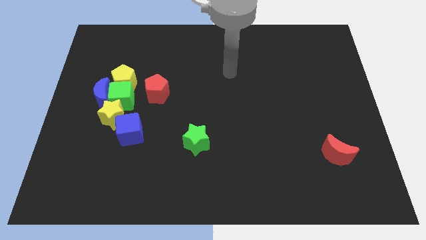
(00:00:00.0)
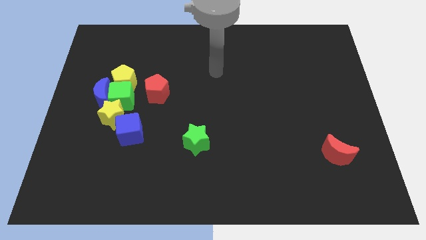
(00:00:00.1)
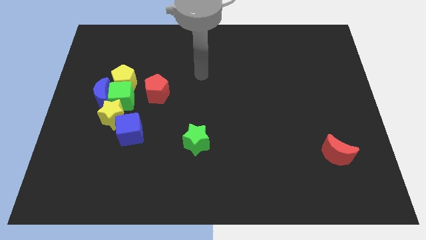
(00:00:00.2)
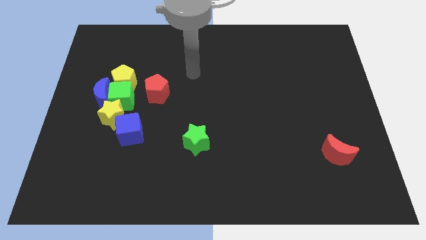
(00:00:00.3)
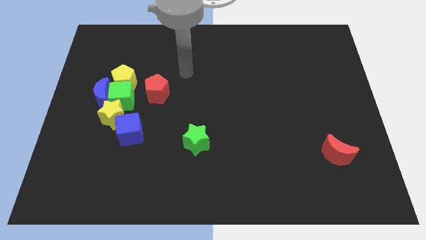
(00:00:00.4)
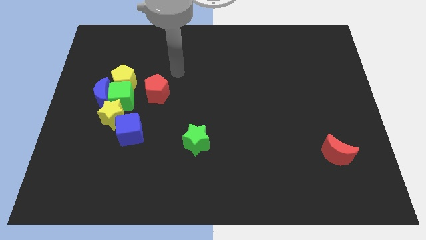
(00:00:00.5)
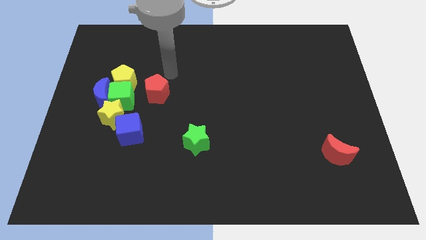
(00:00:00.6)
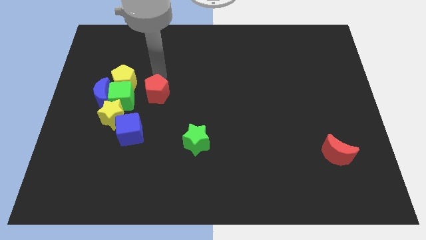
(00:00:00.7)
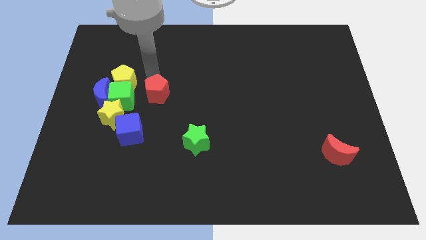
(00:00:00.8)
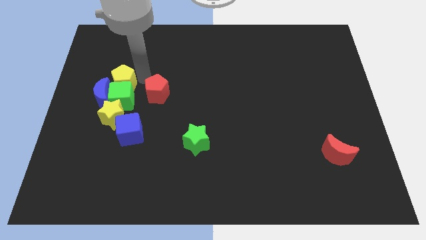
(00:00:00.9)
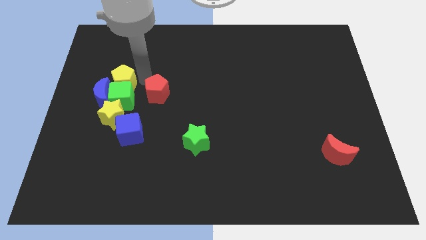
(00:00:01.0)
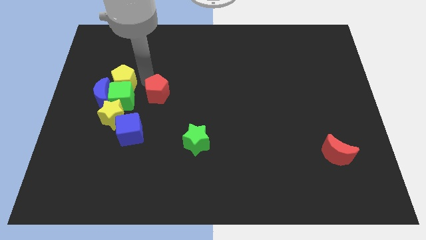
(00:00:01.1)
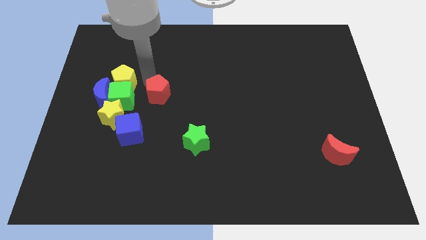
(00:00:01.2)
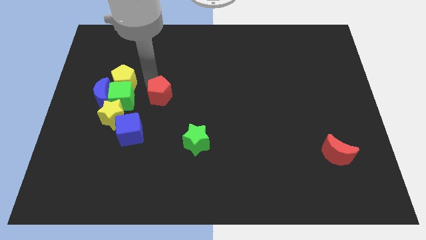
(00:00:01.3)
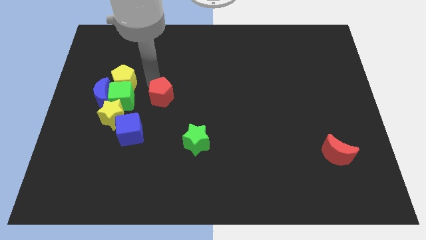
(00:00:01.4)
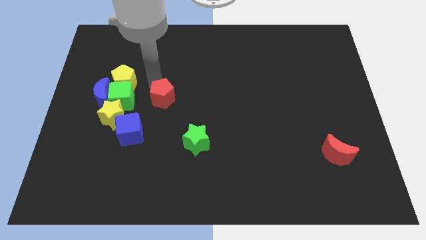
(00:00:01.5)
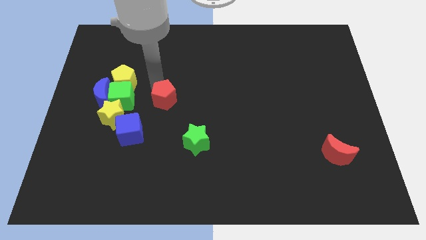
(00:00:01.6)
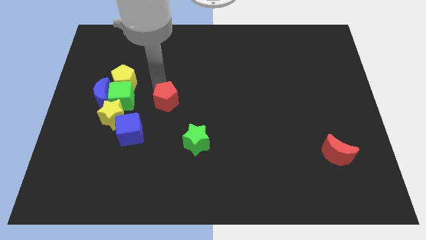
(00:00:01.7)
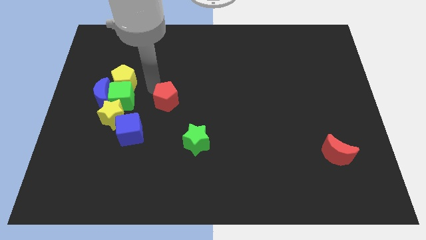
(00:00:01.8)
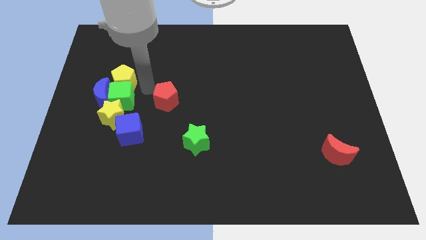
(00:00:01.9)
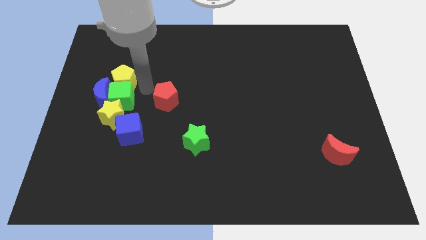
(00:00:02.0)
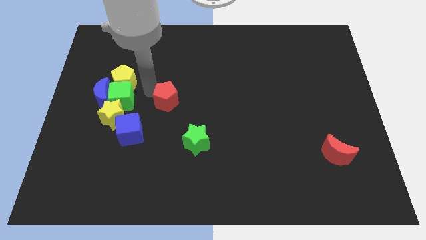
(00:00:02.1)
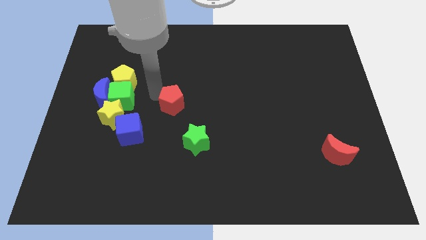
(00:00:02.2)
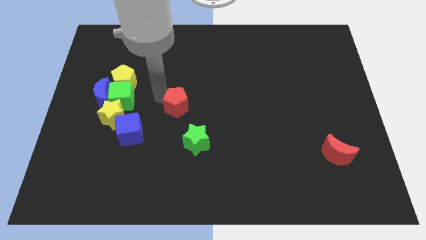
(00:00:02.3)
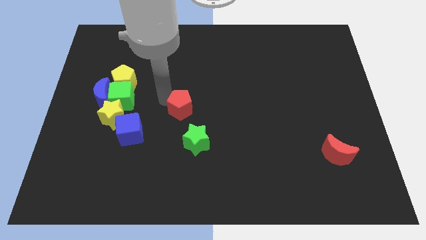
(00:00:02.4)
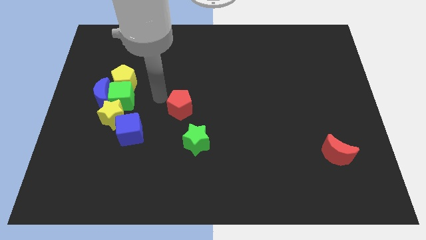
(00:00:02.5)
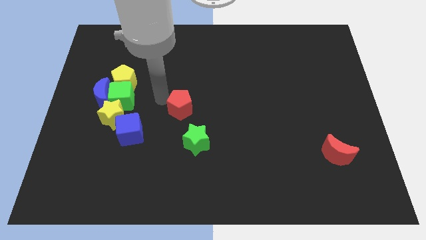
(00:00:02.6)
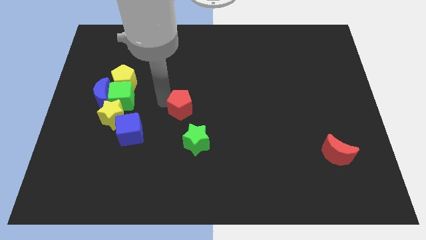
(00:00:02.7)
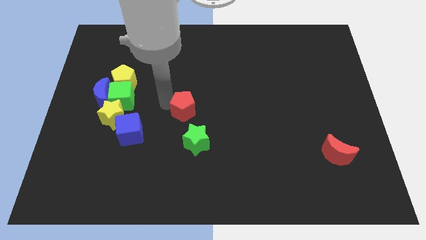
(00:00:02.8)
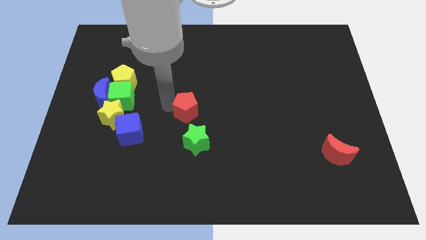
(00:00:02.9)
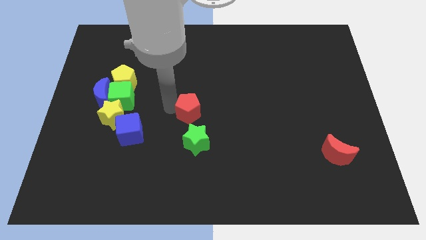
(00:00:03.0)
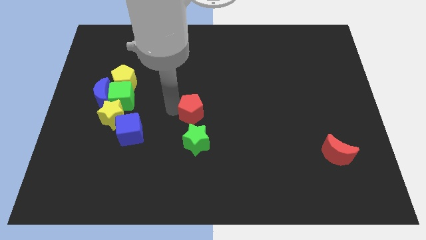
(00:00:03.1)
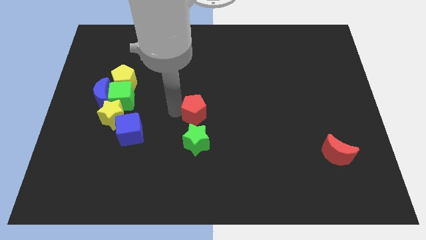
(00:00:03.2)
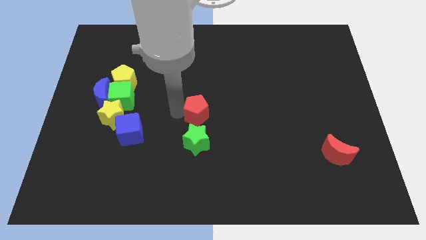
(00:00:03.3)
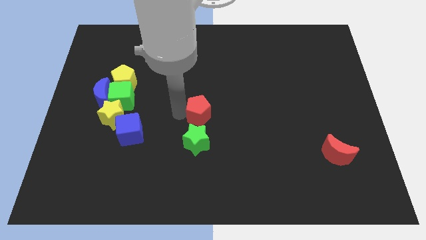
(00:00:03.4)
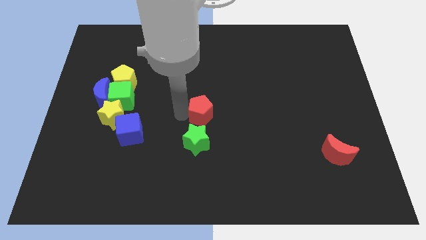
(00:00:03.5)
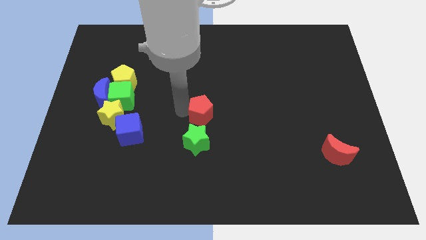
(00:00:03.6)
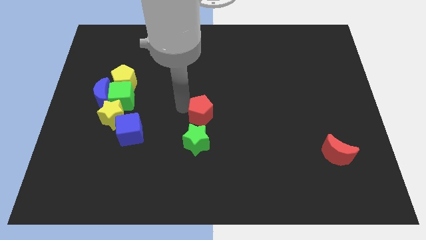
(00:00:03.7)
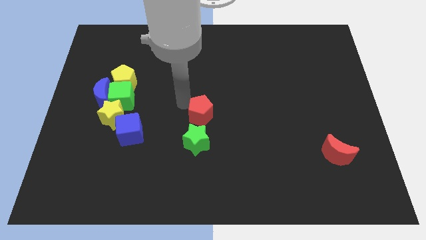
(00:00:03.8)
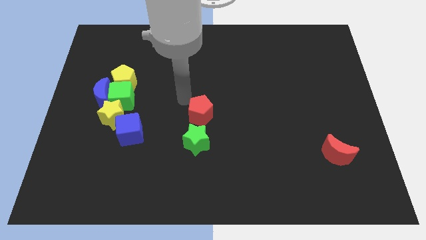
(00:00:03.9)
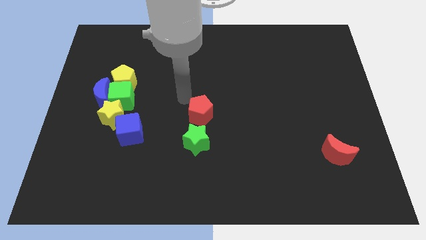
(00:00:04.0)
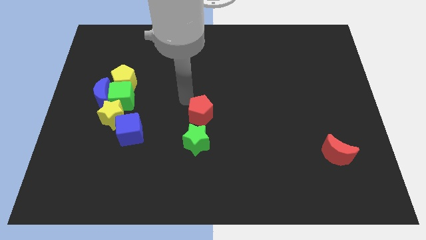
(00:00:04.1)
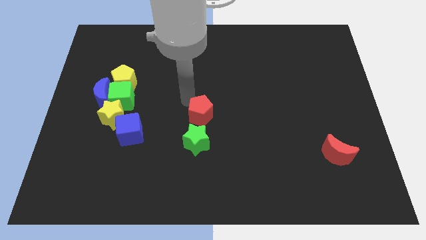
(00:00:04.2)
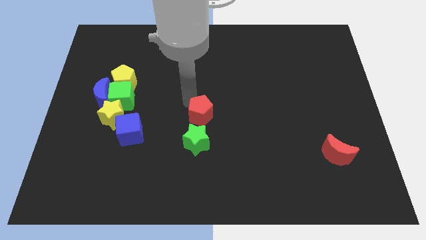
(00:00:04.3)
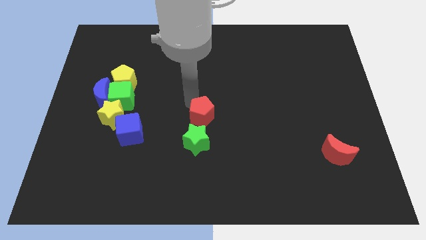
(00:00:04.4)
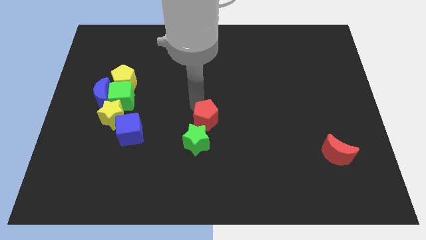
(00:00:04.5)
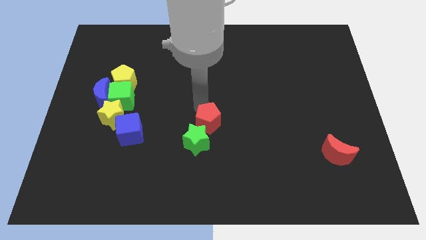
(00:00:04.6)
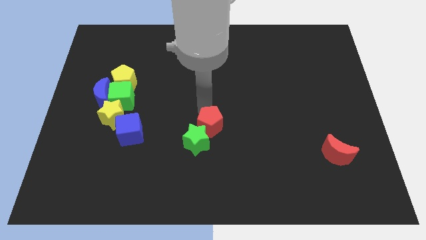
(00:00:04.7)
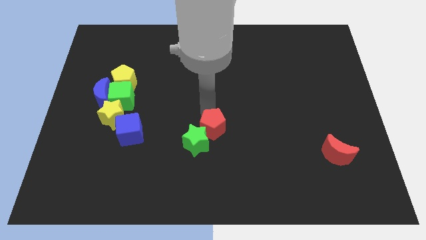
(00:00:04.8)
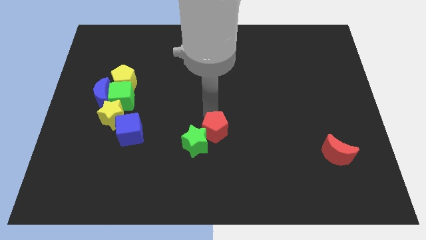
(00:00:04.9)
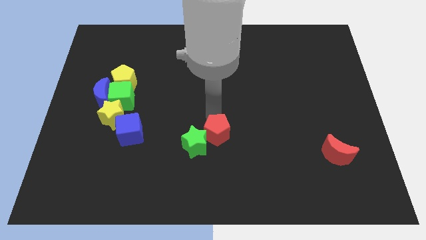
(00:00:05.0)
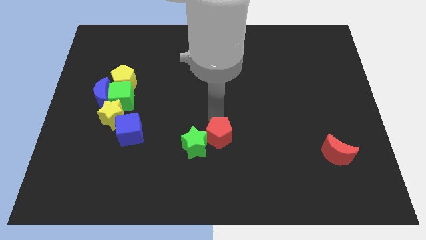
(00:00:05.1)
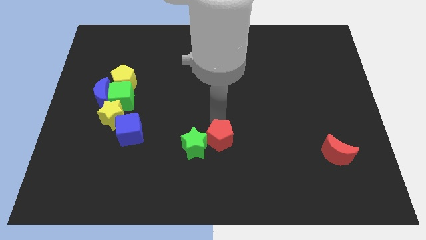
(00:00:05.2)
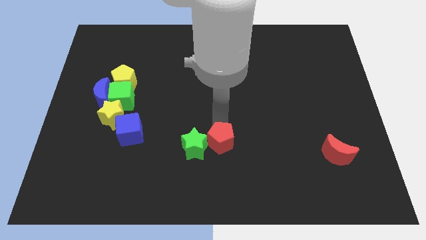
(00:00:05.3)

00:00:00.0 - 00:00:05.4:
slide the red pentagon diagonally down and to the right of the green star

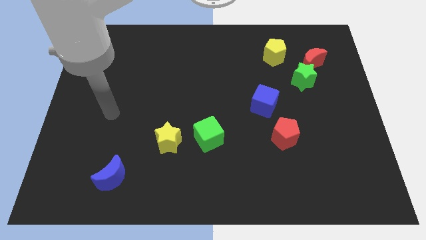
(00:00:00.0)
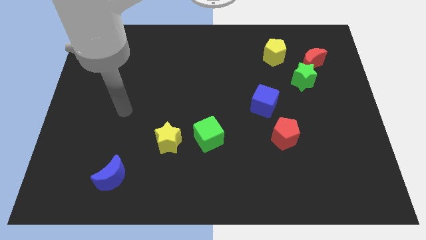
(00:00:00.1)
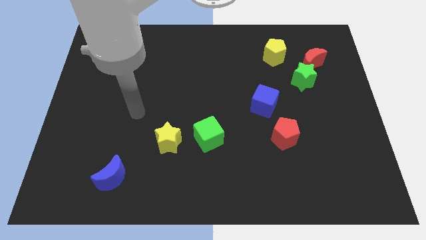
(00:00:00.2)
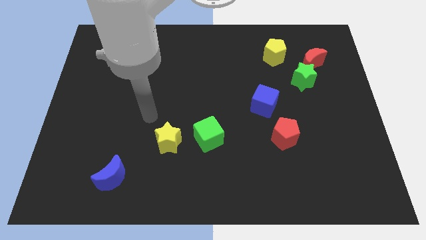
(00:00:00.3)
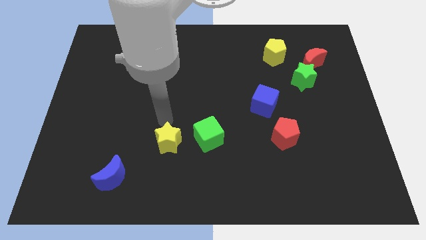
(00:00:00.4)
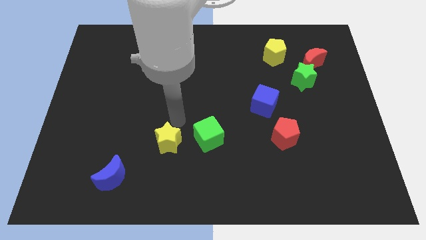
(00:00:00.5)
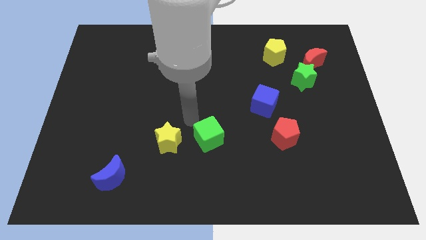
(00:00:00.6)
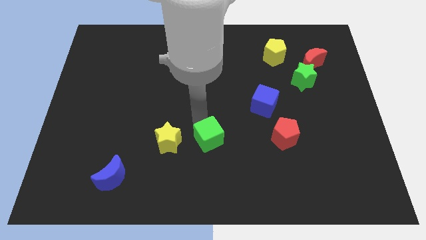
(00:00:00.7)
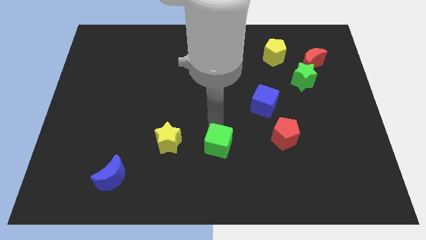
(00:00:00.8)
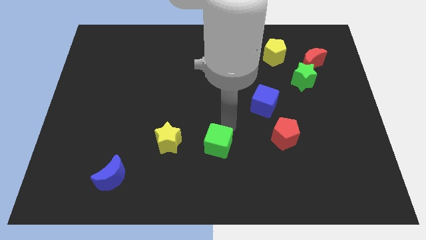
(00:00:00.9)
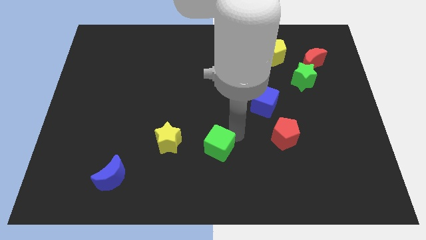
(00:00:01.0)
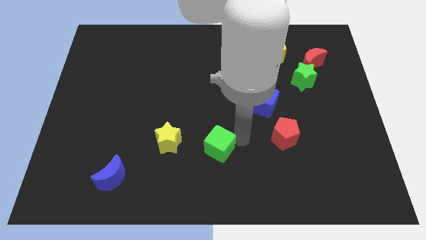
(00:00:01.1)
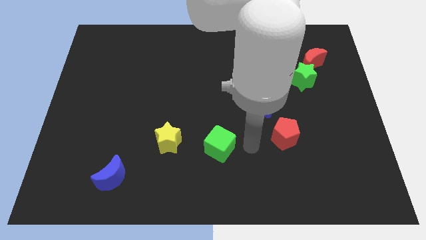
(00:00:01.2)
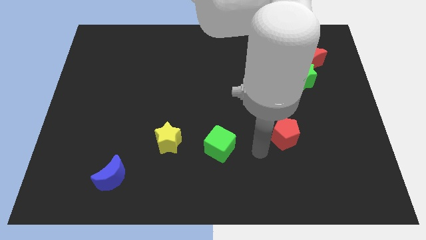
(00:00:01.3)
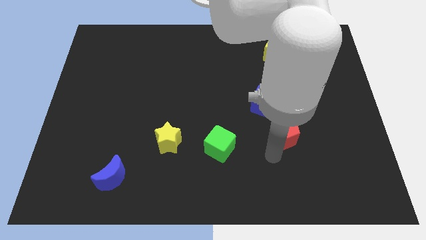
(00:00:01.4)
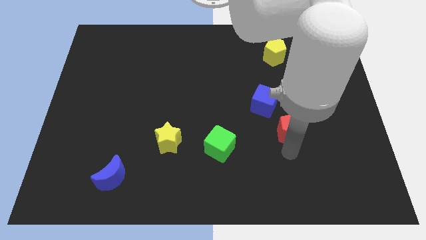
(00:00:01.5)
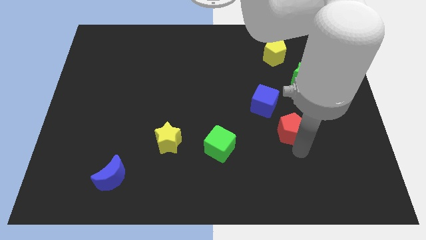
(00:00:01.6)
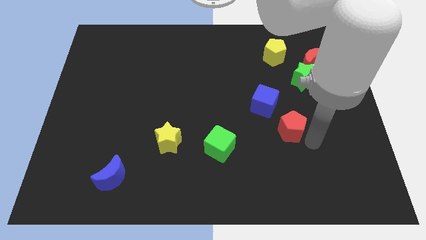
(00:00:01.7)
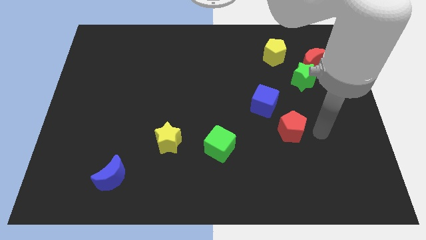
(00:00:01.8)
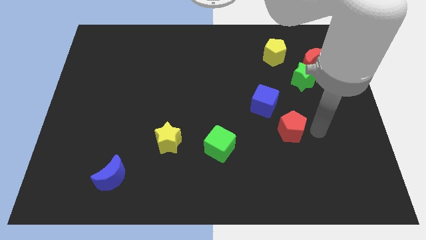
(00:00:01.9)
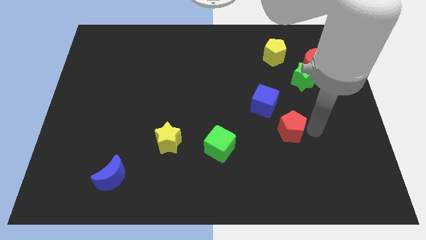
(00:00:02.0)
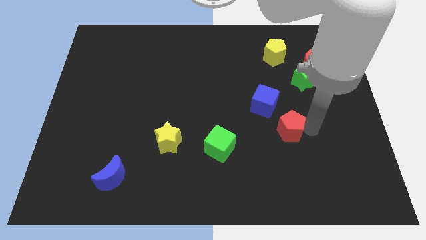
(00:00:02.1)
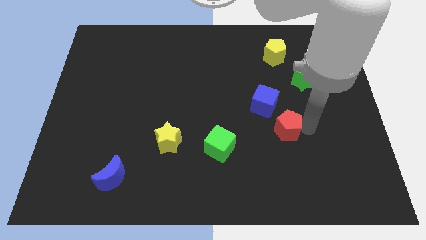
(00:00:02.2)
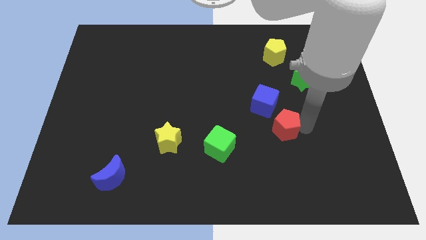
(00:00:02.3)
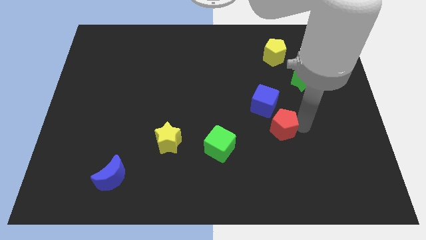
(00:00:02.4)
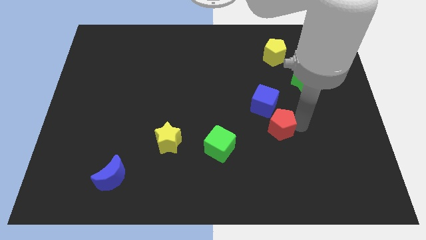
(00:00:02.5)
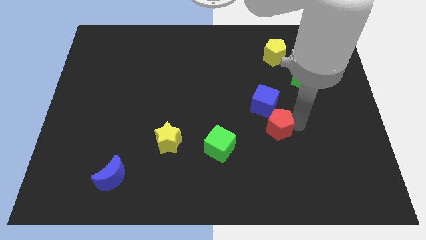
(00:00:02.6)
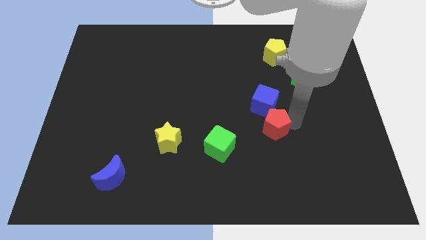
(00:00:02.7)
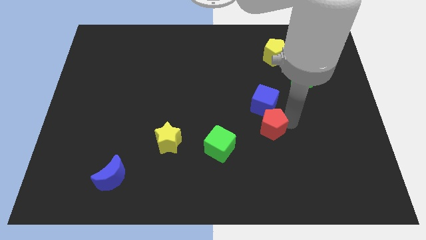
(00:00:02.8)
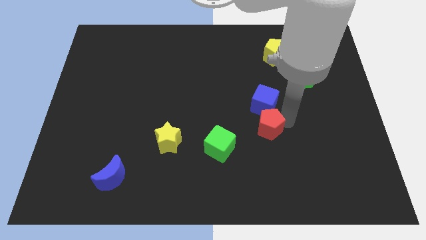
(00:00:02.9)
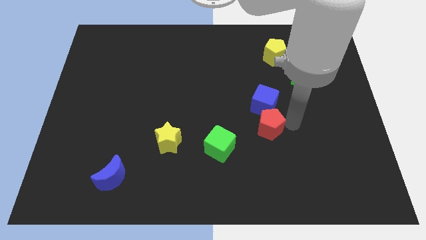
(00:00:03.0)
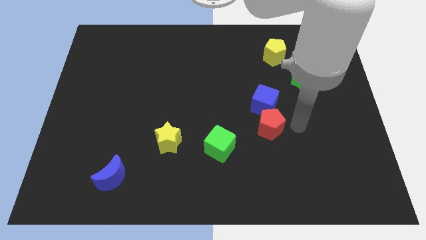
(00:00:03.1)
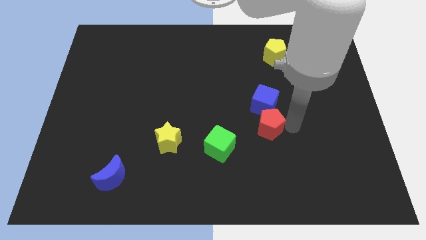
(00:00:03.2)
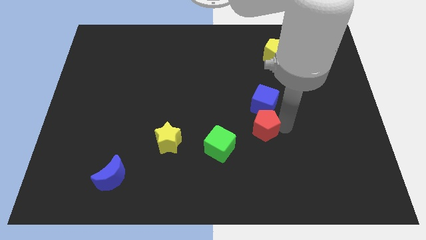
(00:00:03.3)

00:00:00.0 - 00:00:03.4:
move the red pentagon to the top right side of the green cube
